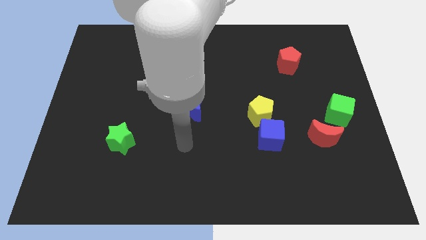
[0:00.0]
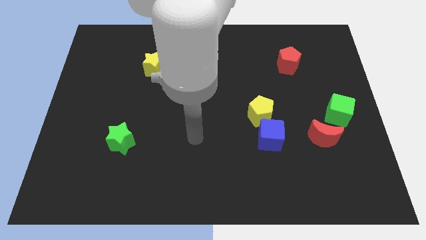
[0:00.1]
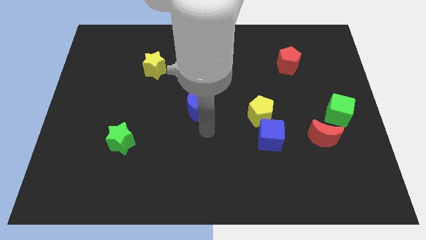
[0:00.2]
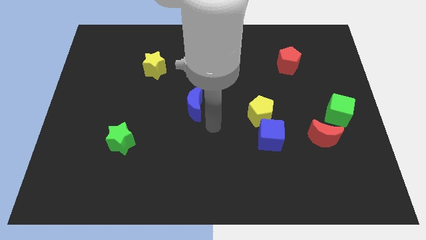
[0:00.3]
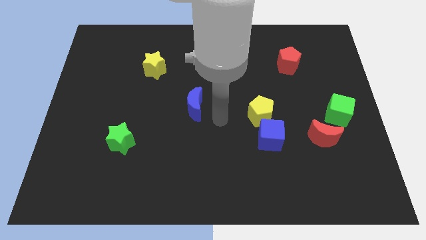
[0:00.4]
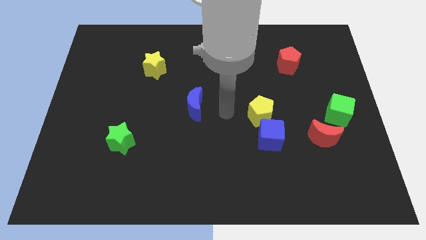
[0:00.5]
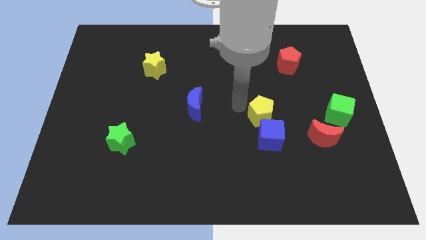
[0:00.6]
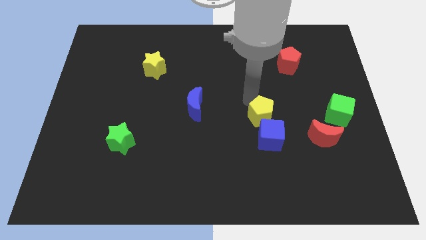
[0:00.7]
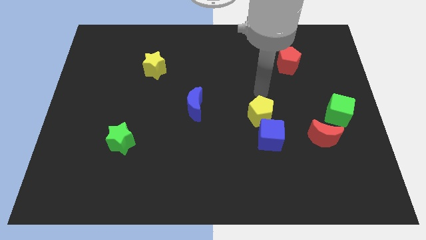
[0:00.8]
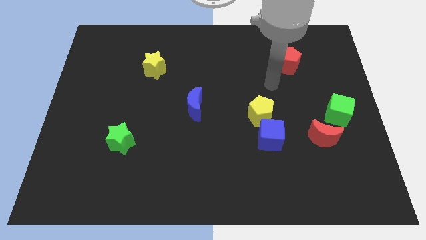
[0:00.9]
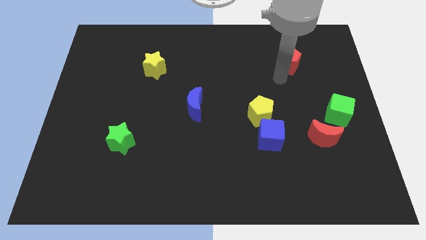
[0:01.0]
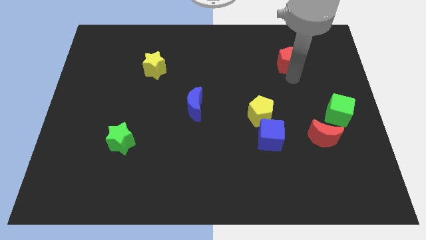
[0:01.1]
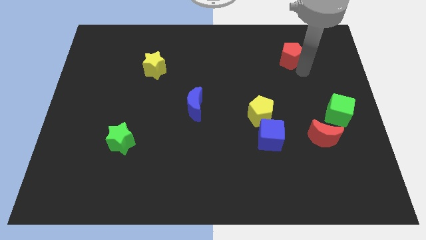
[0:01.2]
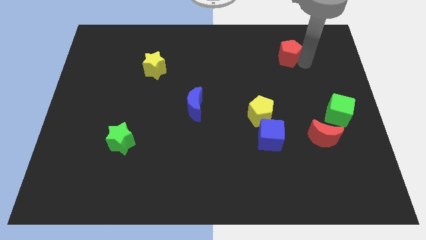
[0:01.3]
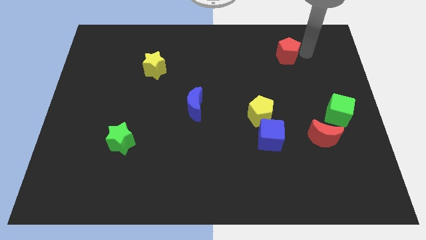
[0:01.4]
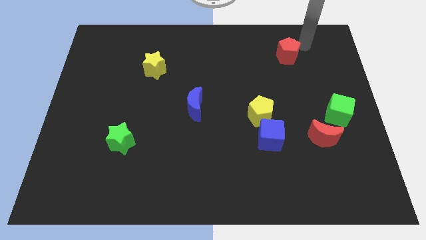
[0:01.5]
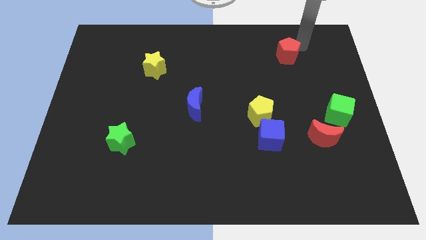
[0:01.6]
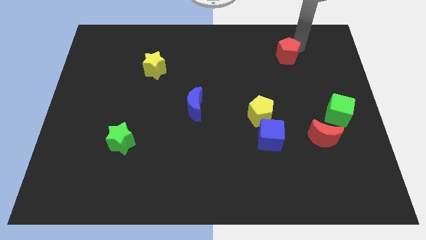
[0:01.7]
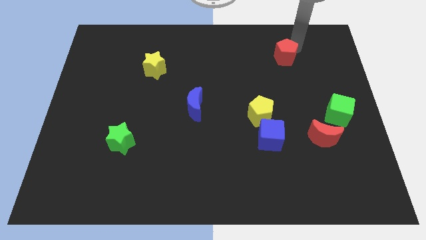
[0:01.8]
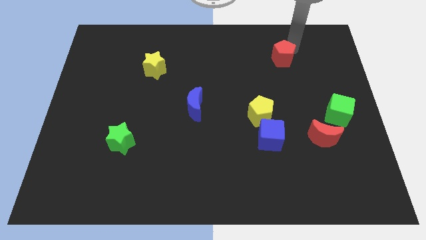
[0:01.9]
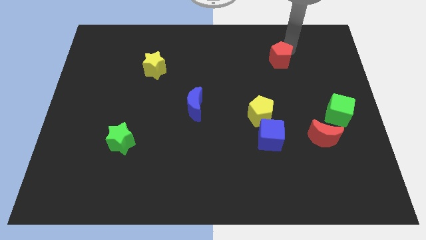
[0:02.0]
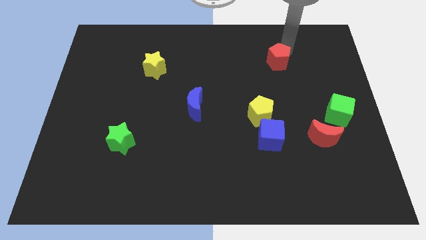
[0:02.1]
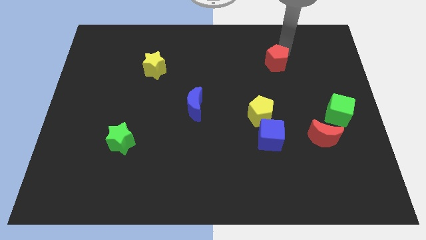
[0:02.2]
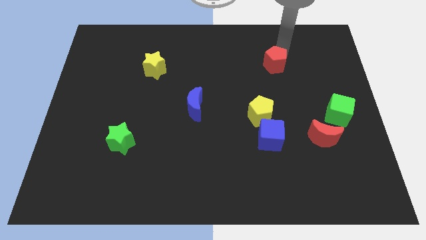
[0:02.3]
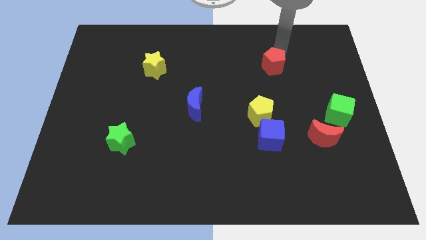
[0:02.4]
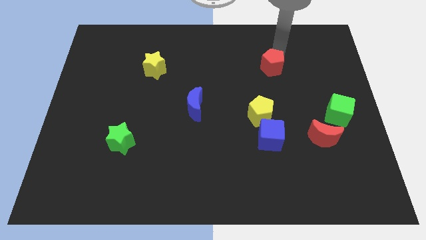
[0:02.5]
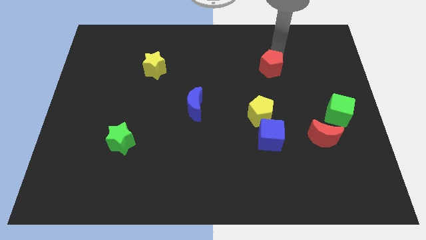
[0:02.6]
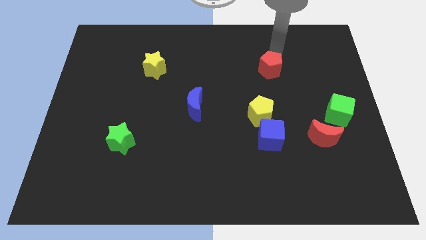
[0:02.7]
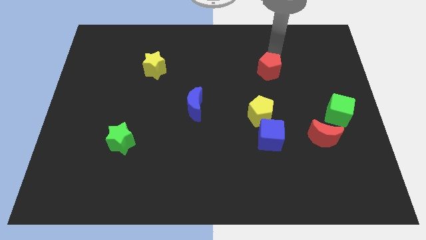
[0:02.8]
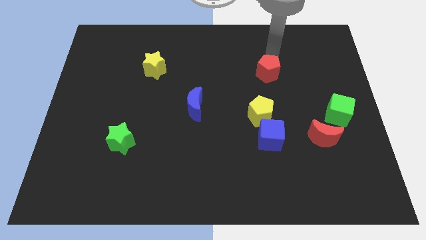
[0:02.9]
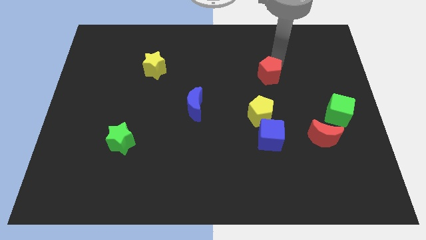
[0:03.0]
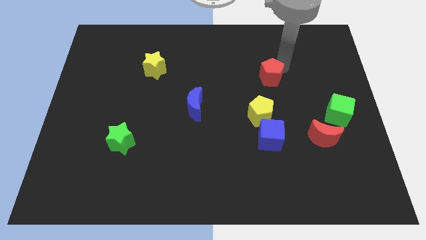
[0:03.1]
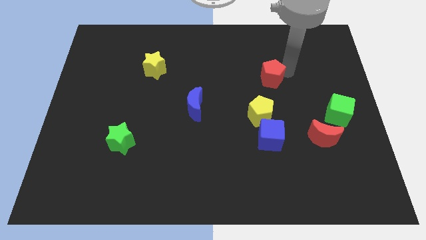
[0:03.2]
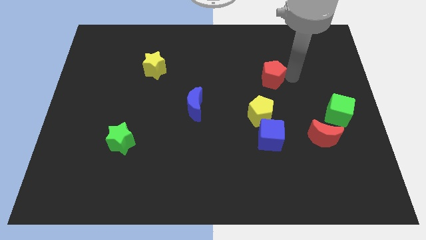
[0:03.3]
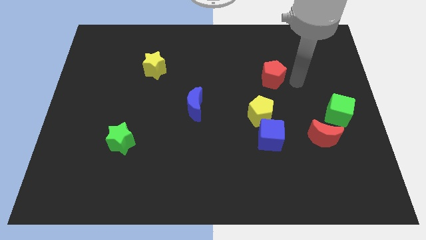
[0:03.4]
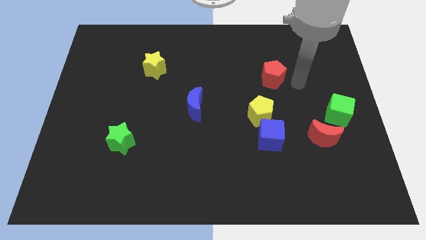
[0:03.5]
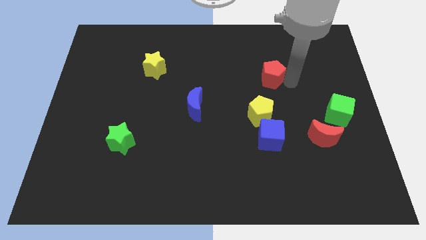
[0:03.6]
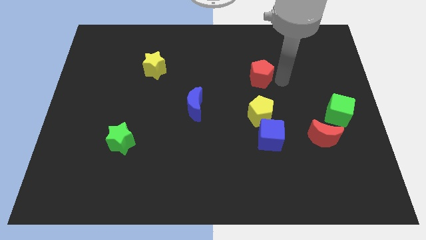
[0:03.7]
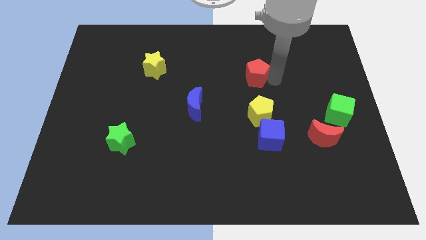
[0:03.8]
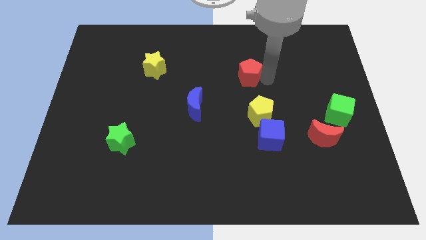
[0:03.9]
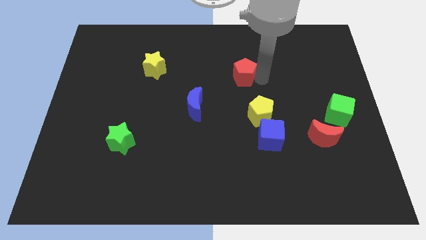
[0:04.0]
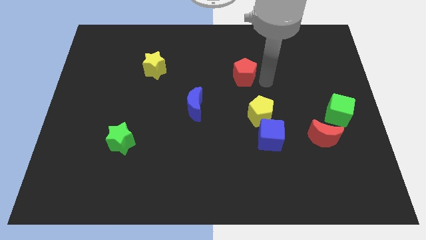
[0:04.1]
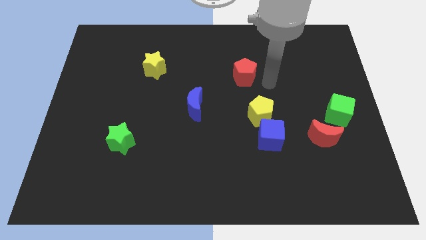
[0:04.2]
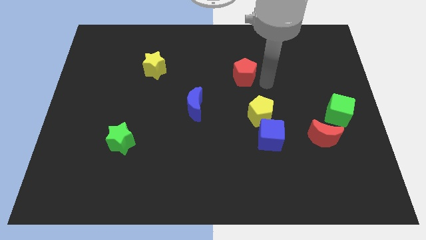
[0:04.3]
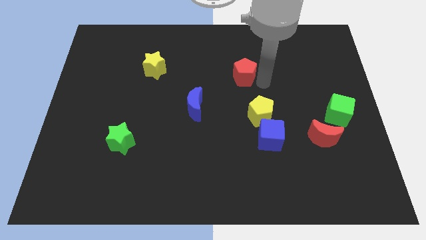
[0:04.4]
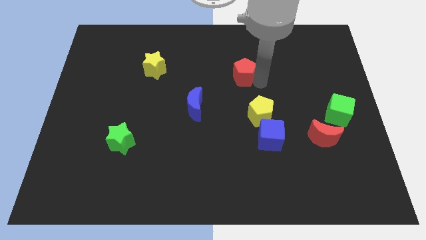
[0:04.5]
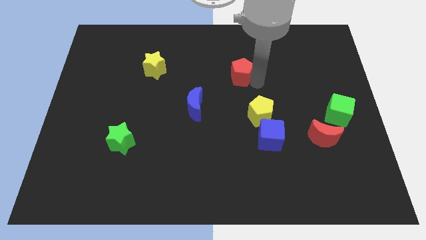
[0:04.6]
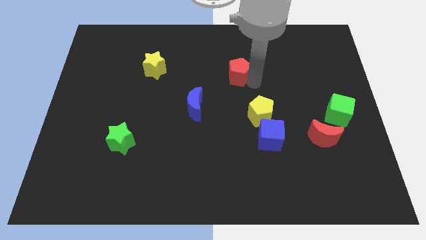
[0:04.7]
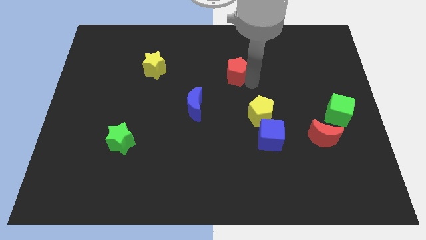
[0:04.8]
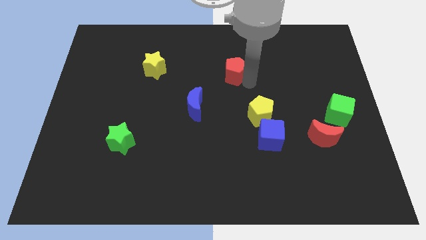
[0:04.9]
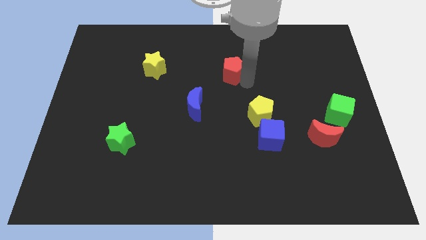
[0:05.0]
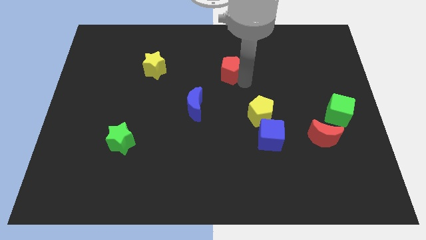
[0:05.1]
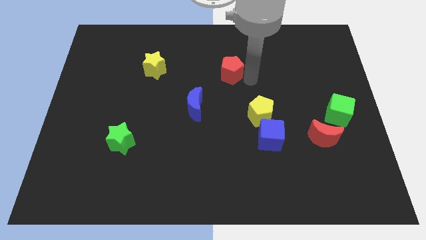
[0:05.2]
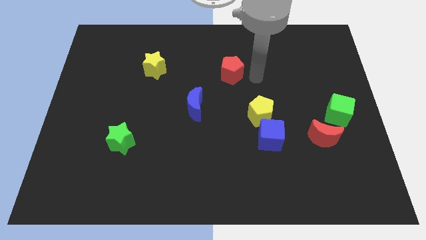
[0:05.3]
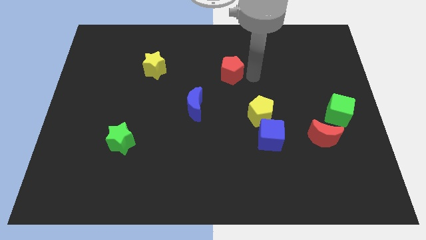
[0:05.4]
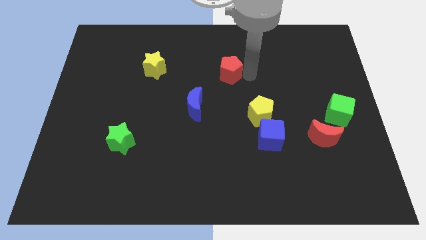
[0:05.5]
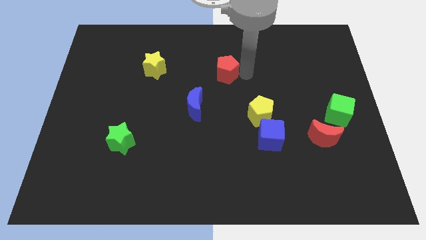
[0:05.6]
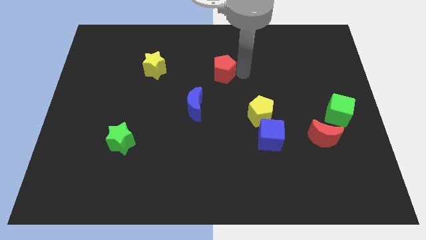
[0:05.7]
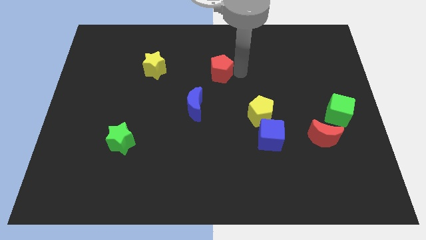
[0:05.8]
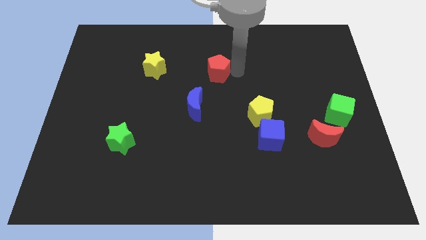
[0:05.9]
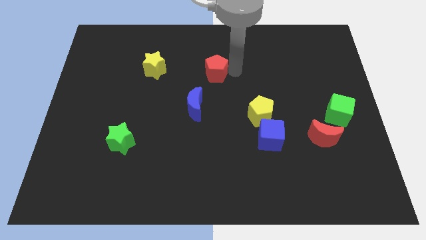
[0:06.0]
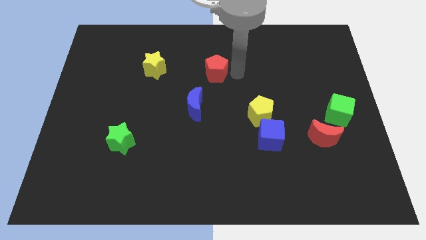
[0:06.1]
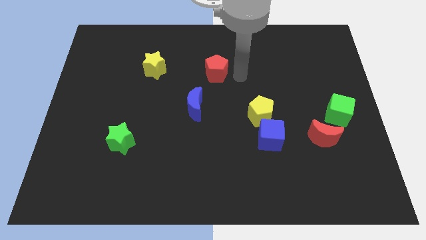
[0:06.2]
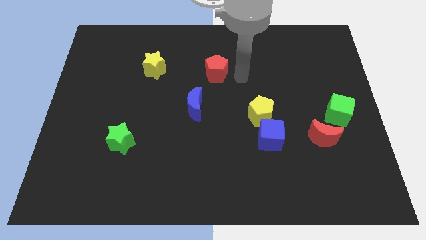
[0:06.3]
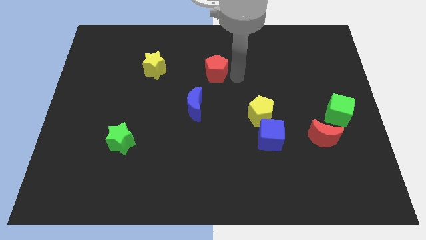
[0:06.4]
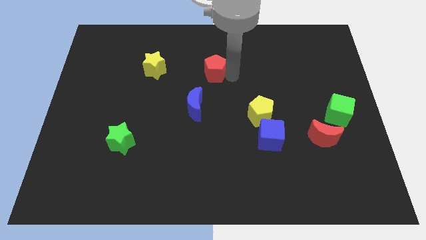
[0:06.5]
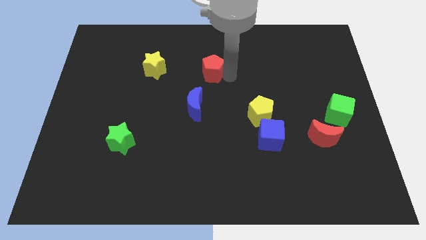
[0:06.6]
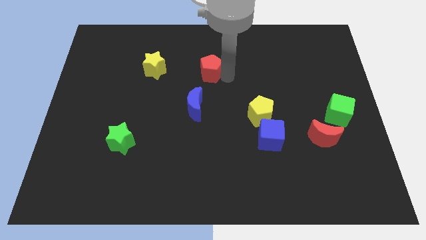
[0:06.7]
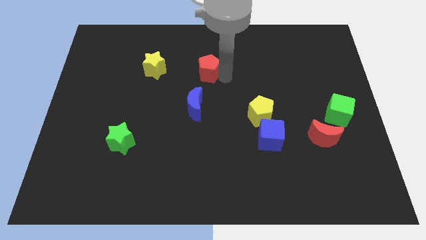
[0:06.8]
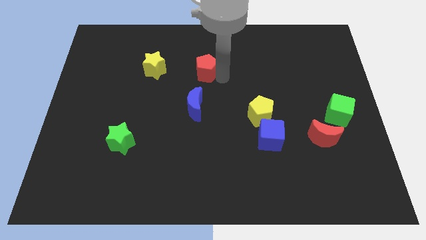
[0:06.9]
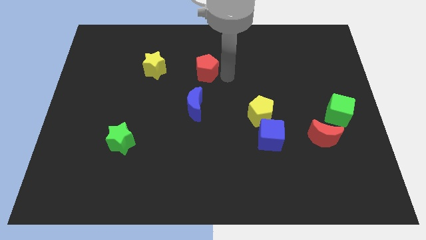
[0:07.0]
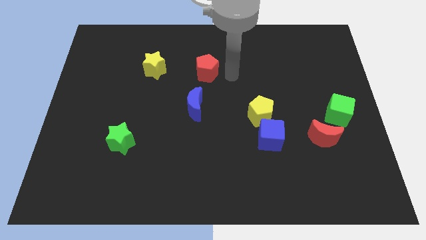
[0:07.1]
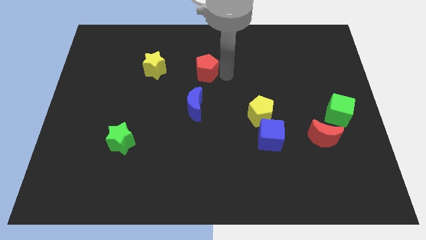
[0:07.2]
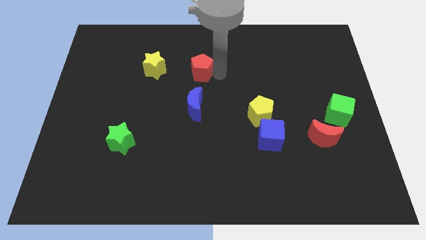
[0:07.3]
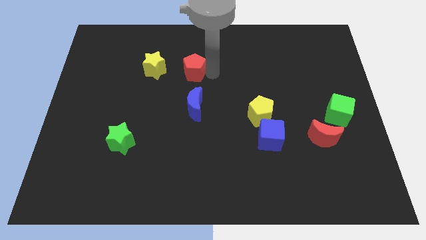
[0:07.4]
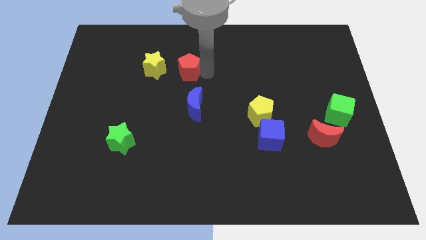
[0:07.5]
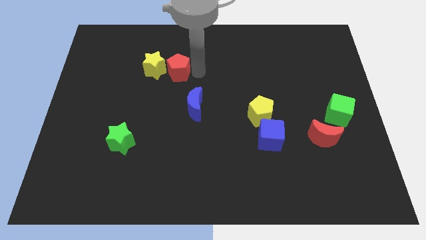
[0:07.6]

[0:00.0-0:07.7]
push the red pentagon next to the yellow star
